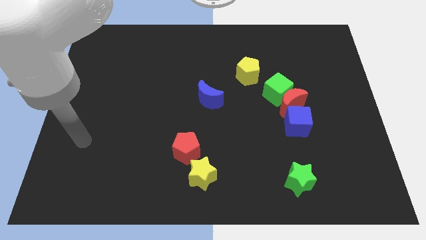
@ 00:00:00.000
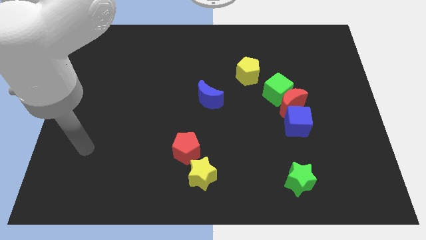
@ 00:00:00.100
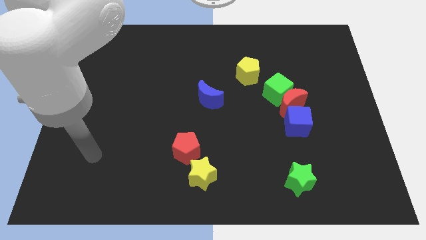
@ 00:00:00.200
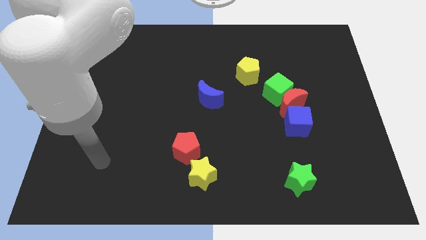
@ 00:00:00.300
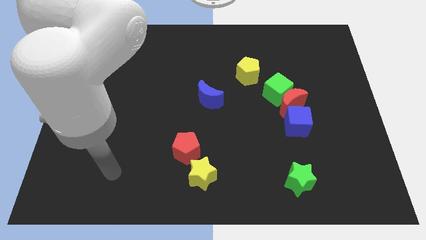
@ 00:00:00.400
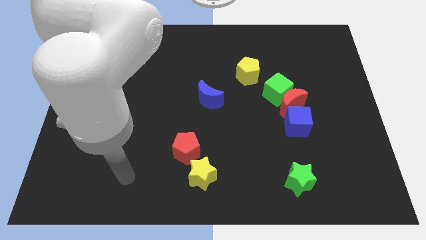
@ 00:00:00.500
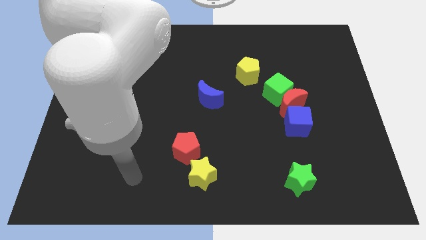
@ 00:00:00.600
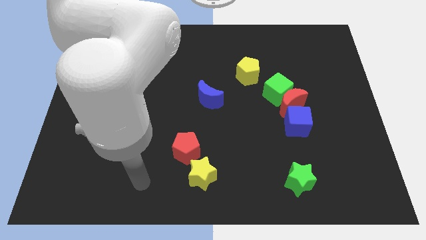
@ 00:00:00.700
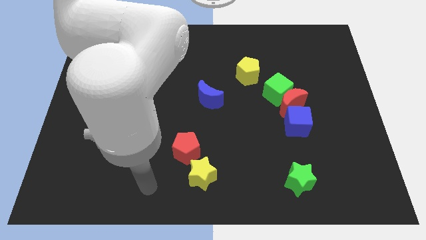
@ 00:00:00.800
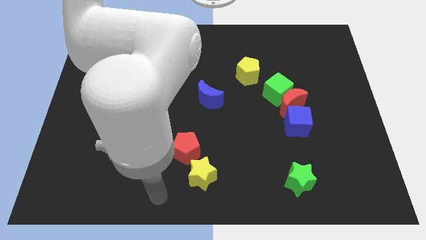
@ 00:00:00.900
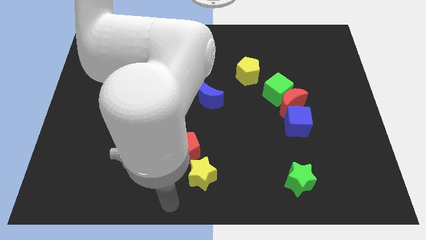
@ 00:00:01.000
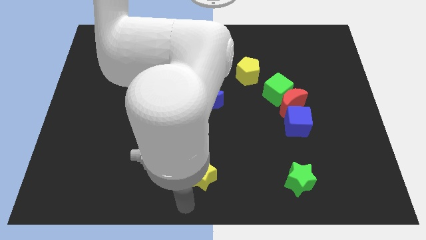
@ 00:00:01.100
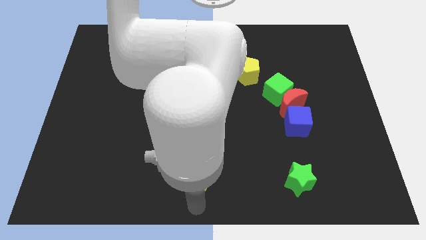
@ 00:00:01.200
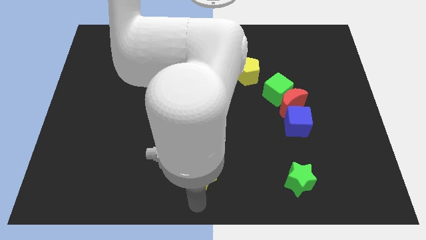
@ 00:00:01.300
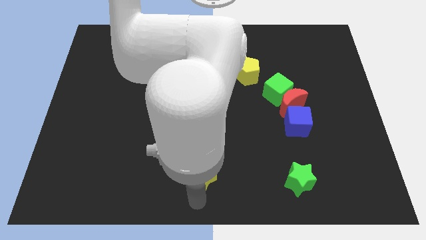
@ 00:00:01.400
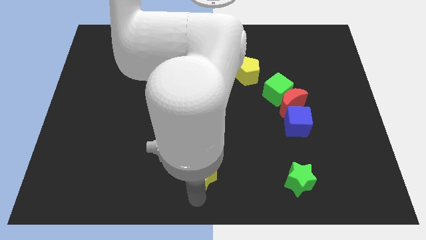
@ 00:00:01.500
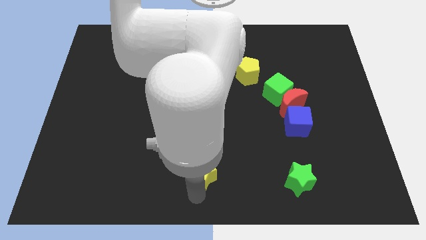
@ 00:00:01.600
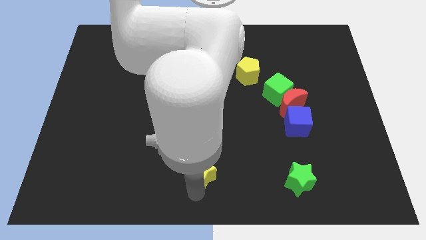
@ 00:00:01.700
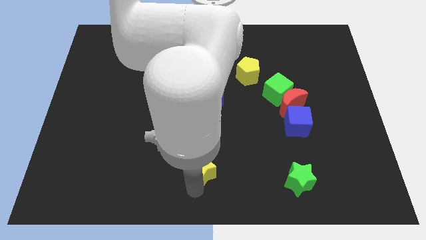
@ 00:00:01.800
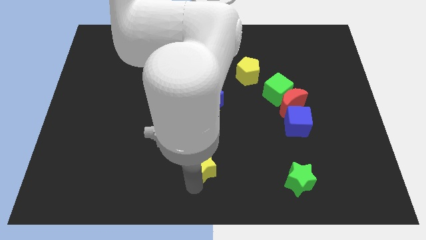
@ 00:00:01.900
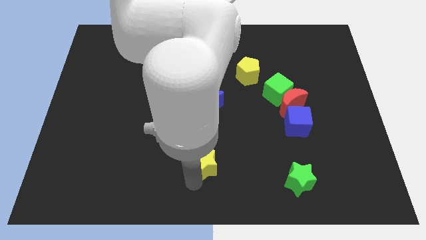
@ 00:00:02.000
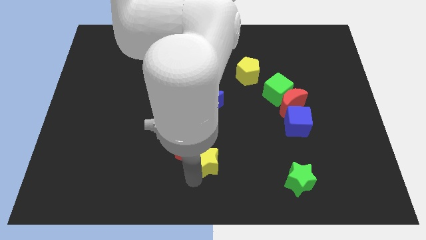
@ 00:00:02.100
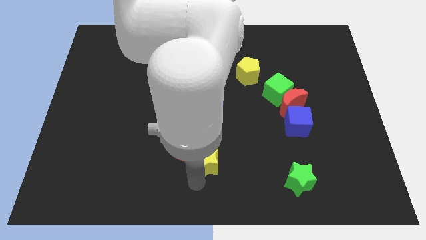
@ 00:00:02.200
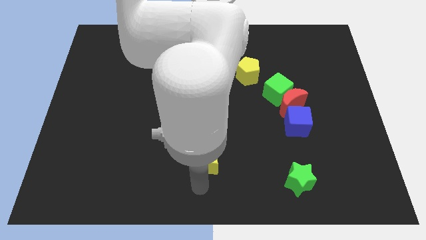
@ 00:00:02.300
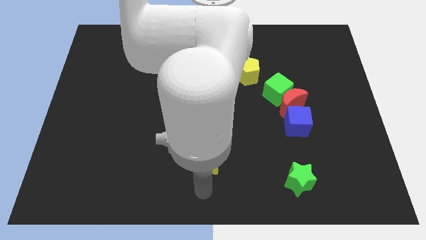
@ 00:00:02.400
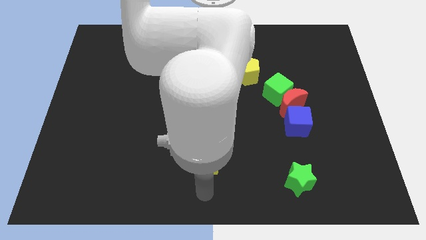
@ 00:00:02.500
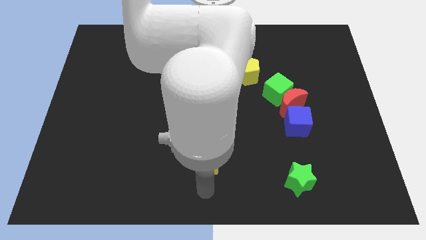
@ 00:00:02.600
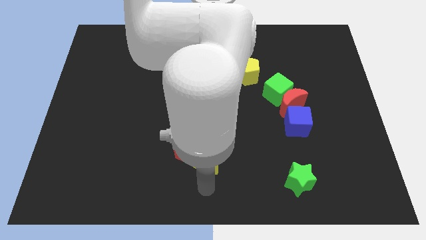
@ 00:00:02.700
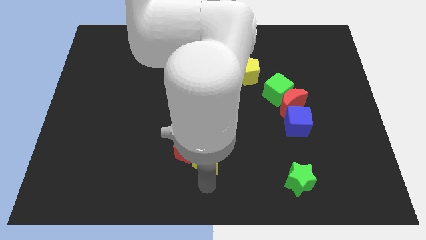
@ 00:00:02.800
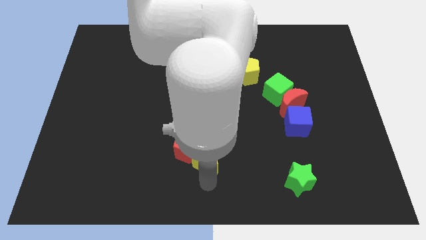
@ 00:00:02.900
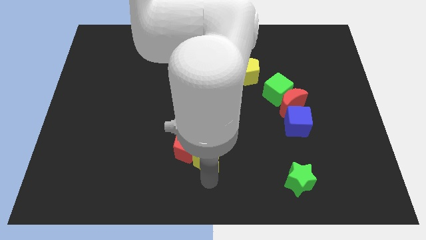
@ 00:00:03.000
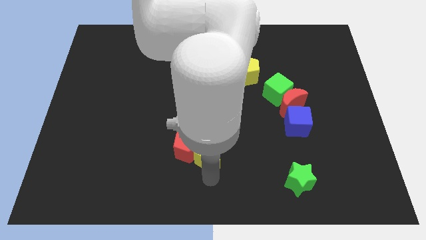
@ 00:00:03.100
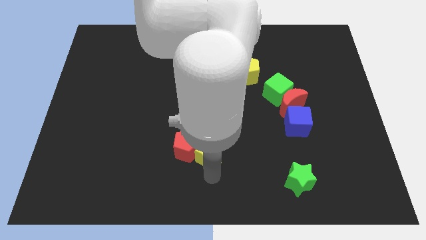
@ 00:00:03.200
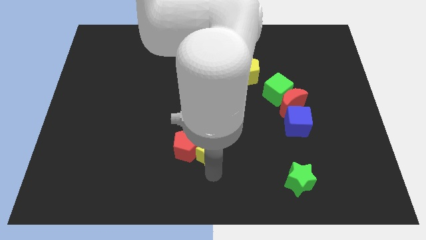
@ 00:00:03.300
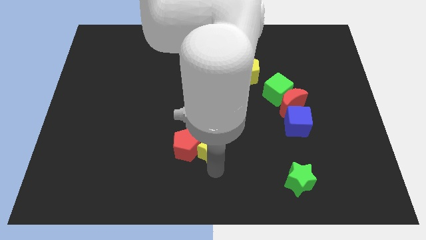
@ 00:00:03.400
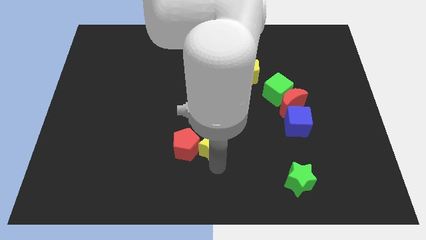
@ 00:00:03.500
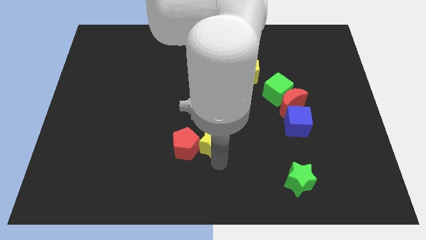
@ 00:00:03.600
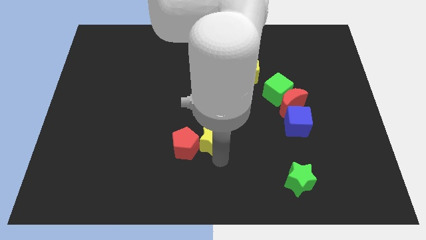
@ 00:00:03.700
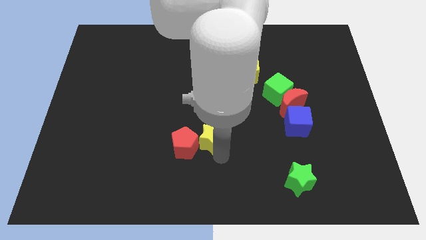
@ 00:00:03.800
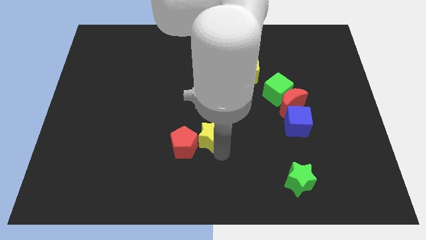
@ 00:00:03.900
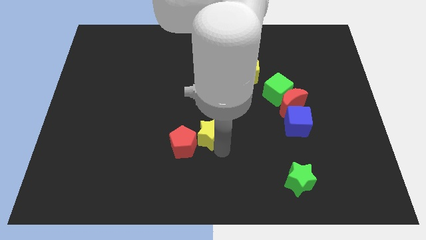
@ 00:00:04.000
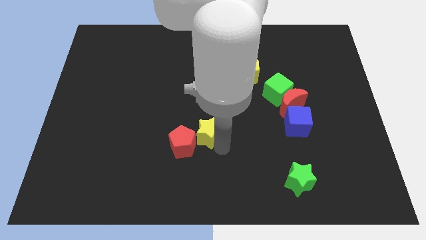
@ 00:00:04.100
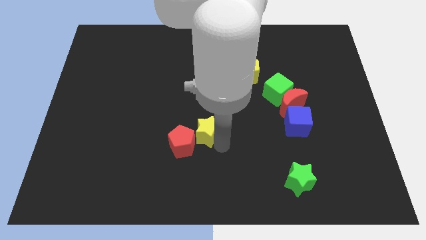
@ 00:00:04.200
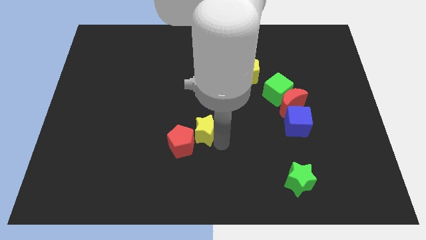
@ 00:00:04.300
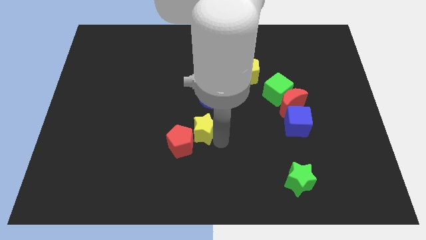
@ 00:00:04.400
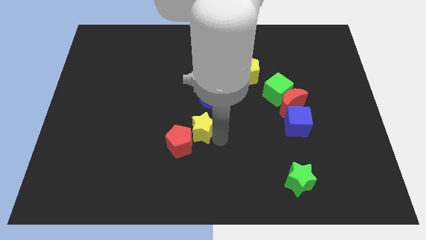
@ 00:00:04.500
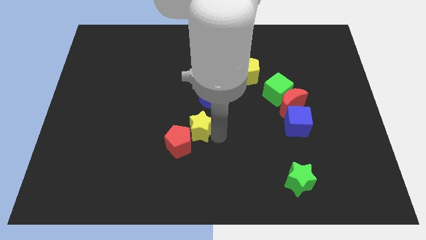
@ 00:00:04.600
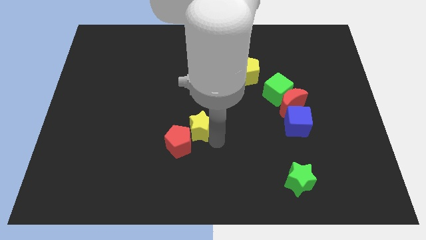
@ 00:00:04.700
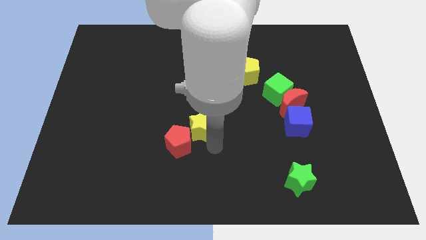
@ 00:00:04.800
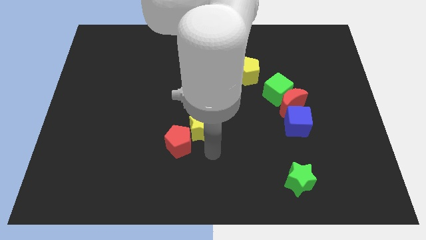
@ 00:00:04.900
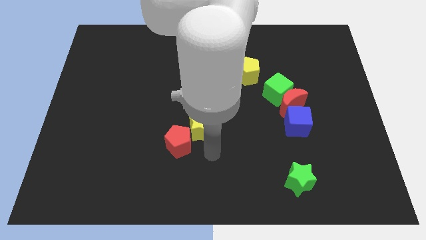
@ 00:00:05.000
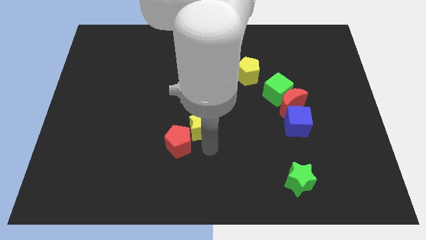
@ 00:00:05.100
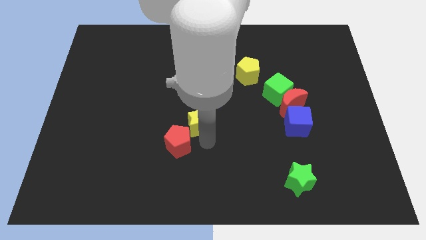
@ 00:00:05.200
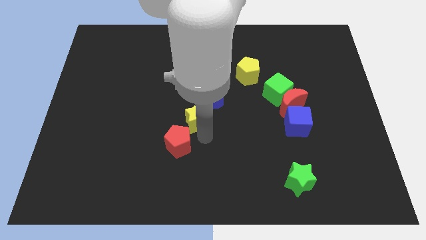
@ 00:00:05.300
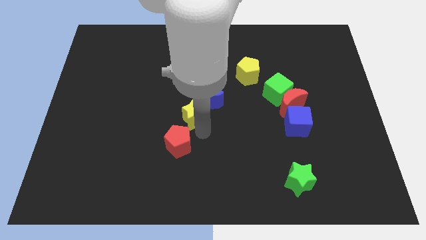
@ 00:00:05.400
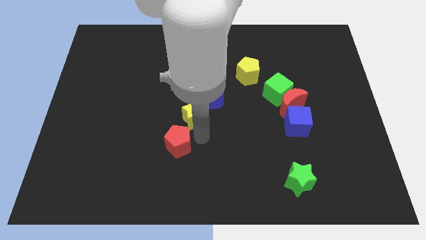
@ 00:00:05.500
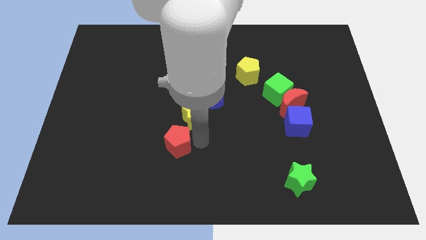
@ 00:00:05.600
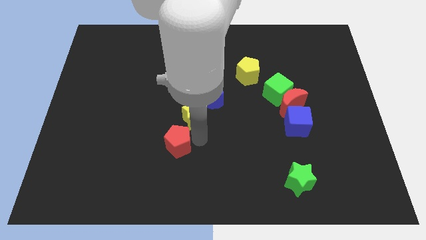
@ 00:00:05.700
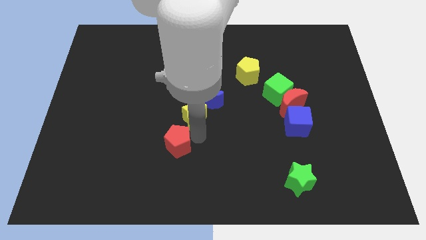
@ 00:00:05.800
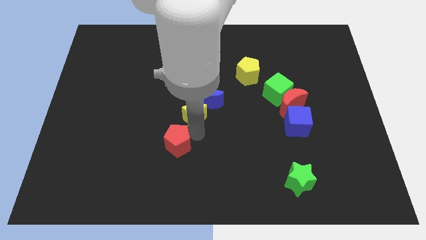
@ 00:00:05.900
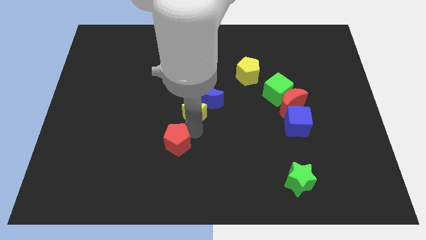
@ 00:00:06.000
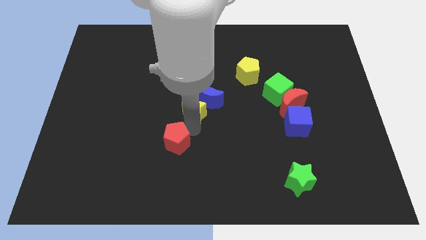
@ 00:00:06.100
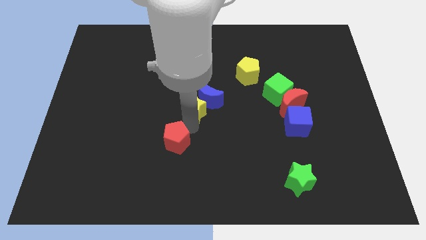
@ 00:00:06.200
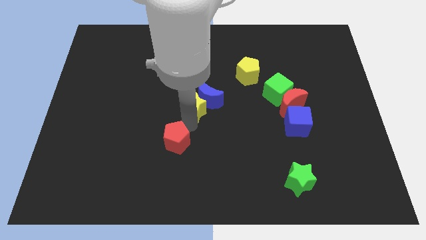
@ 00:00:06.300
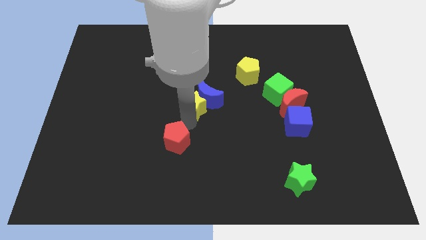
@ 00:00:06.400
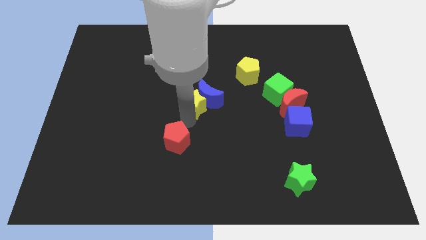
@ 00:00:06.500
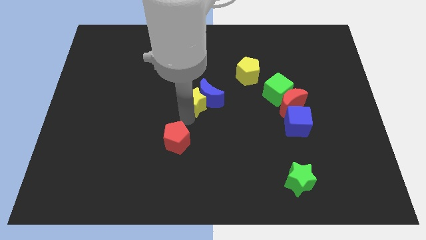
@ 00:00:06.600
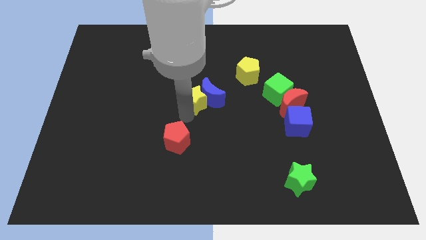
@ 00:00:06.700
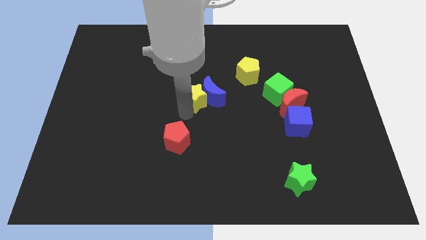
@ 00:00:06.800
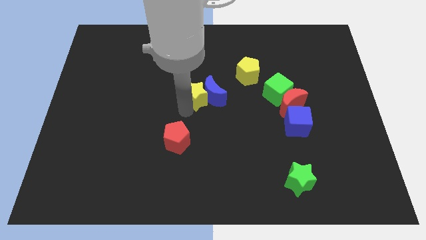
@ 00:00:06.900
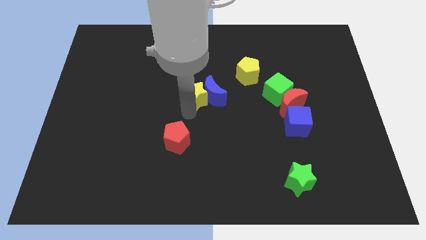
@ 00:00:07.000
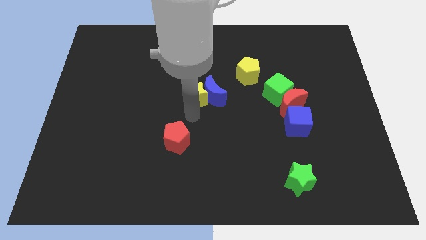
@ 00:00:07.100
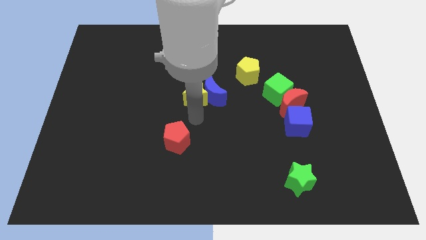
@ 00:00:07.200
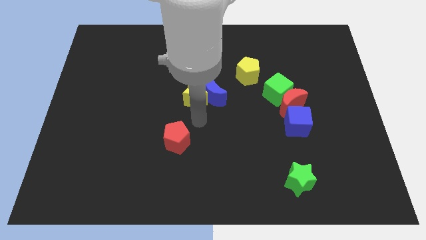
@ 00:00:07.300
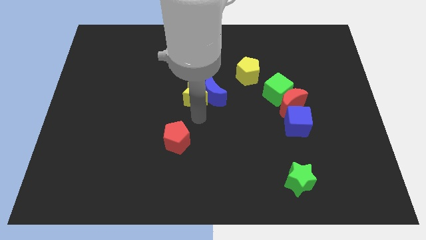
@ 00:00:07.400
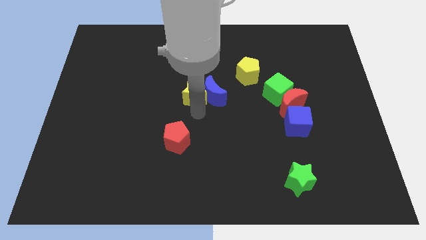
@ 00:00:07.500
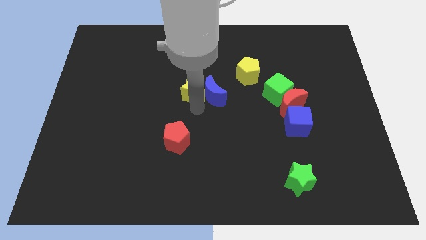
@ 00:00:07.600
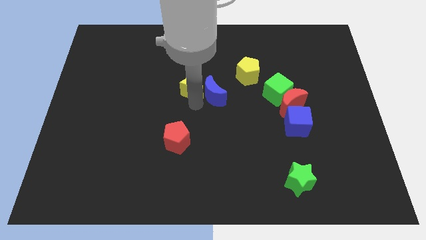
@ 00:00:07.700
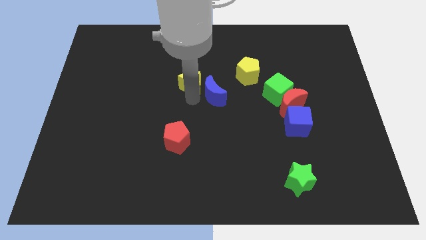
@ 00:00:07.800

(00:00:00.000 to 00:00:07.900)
put the yellow star just left of the yellow pentagon

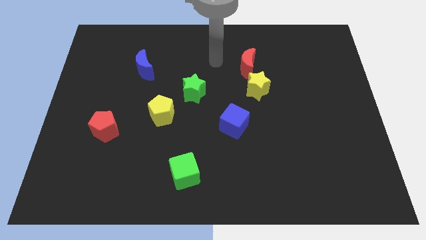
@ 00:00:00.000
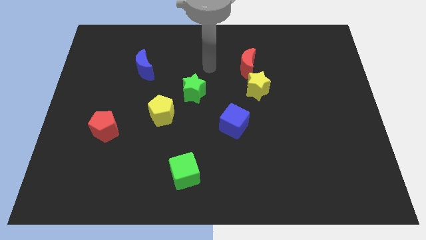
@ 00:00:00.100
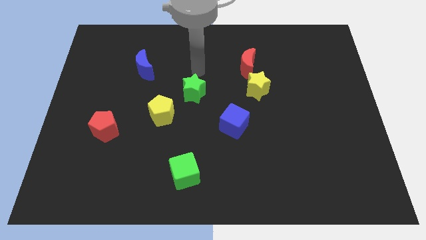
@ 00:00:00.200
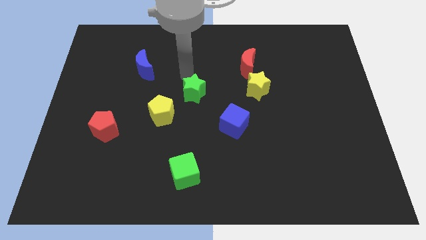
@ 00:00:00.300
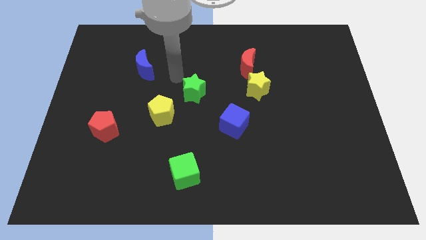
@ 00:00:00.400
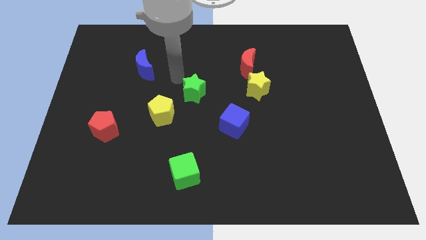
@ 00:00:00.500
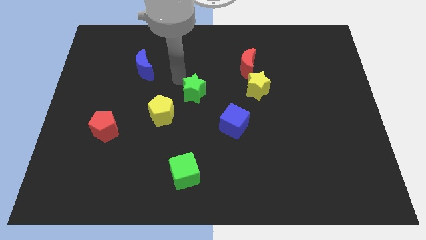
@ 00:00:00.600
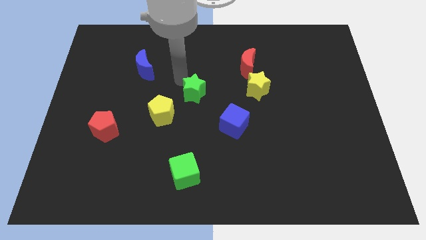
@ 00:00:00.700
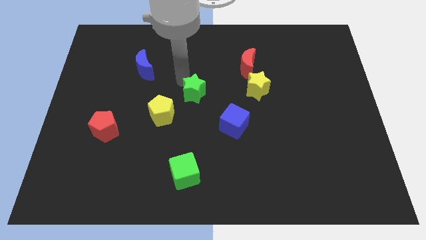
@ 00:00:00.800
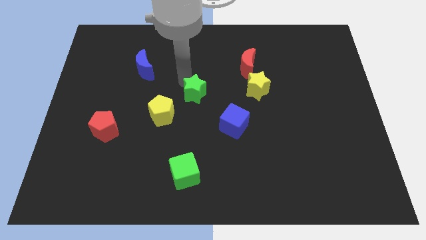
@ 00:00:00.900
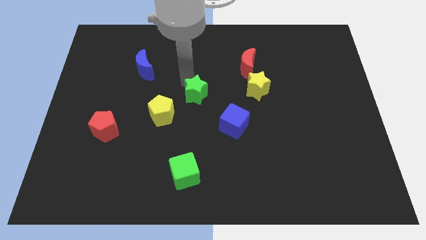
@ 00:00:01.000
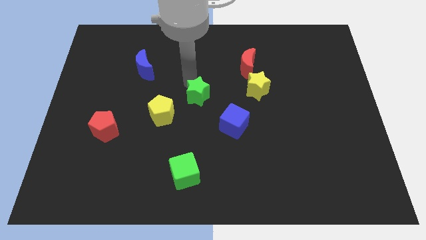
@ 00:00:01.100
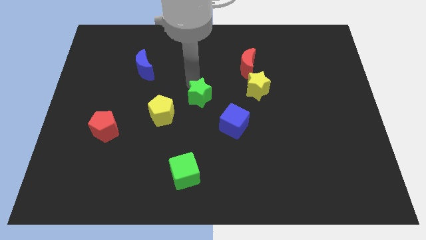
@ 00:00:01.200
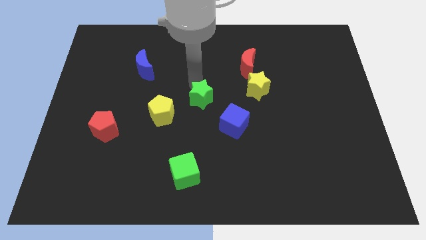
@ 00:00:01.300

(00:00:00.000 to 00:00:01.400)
slide the green star right of the yellow pentagon
